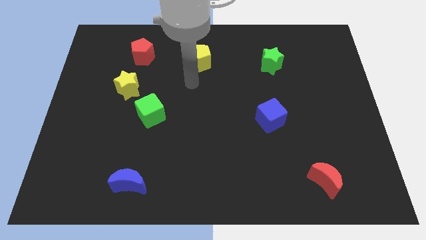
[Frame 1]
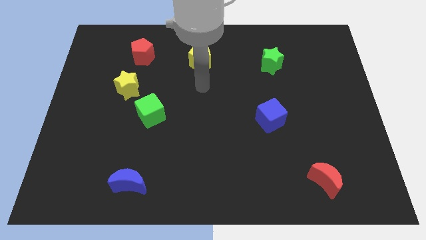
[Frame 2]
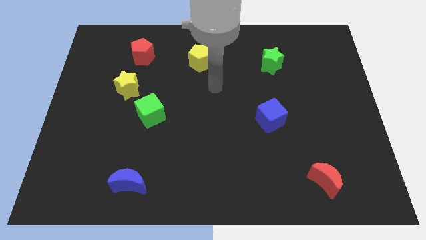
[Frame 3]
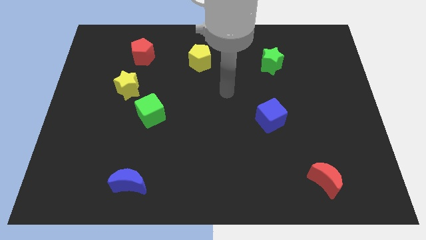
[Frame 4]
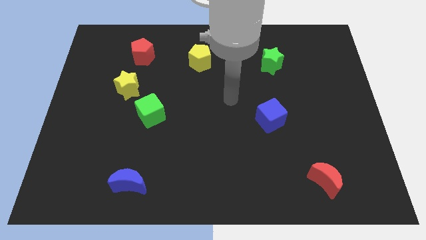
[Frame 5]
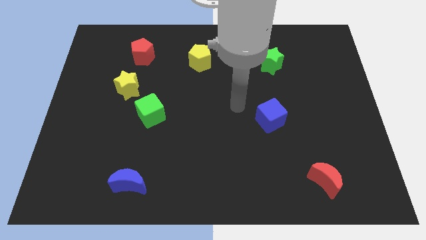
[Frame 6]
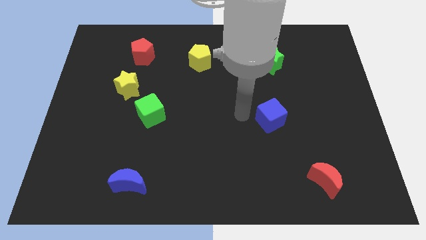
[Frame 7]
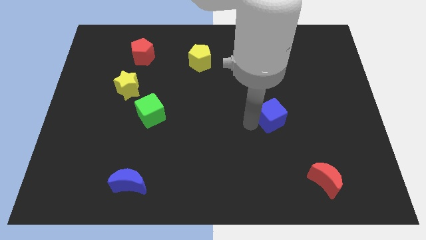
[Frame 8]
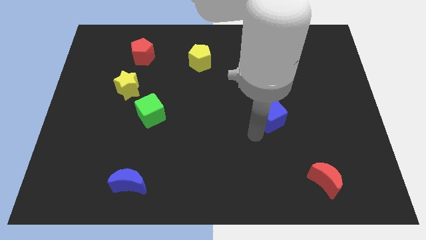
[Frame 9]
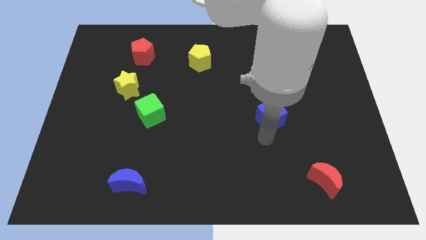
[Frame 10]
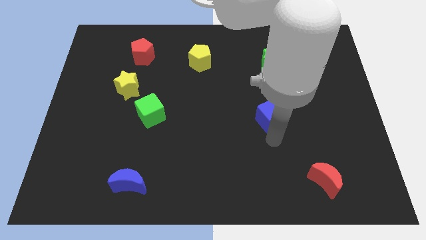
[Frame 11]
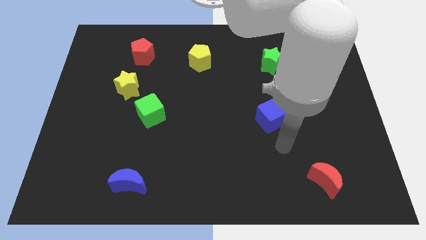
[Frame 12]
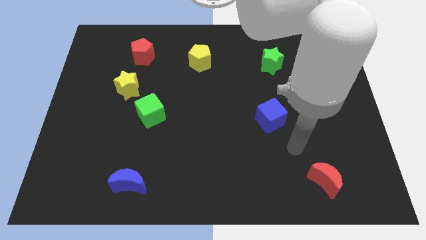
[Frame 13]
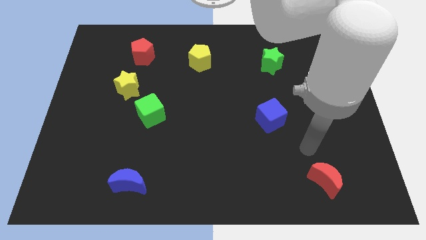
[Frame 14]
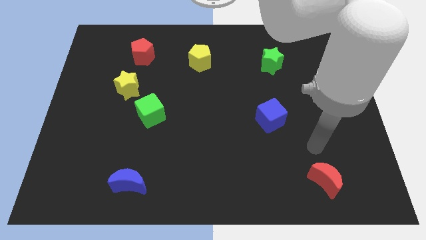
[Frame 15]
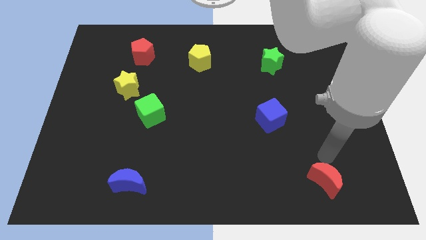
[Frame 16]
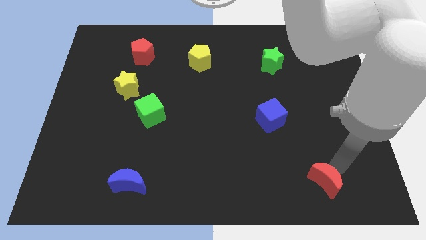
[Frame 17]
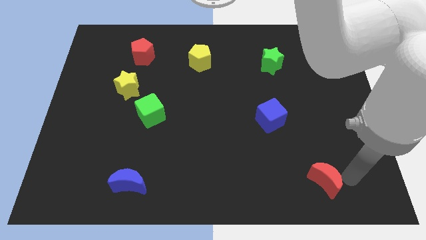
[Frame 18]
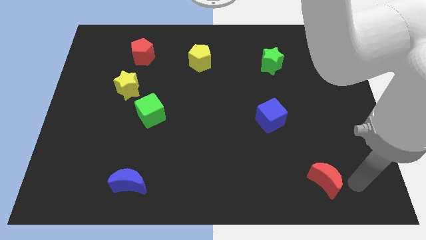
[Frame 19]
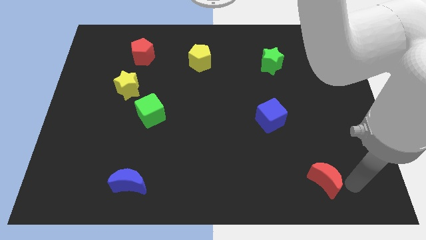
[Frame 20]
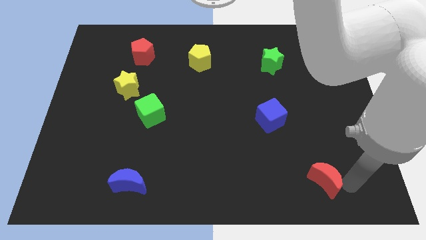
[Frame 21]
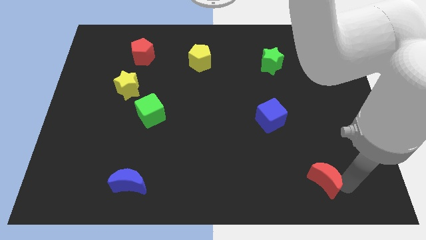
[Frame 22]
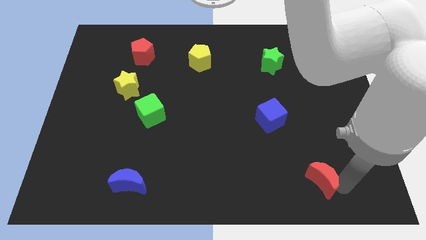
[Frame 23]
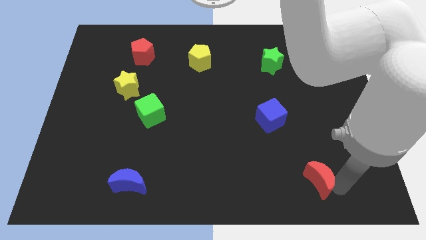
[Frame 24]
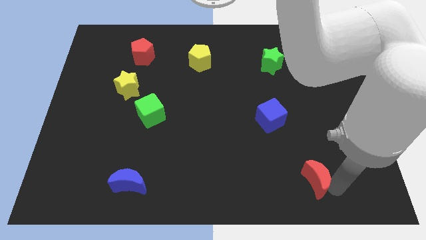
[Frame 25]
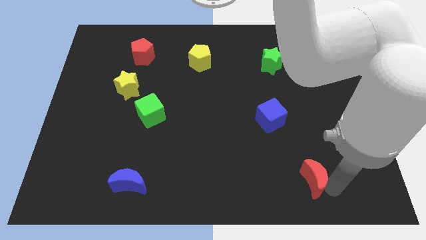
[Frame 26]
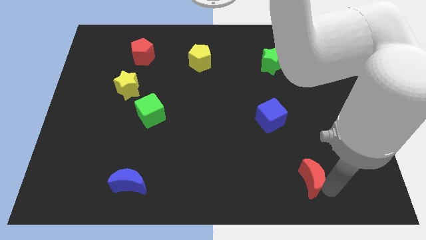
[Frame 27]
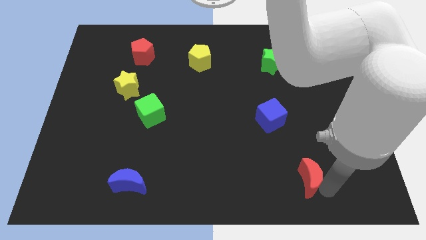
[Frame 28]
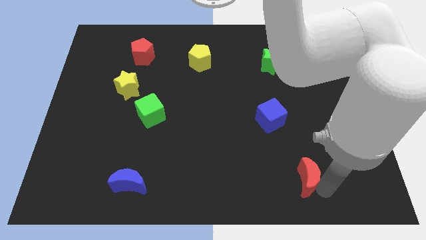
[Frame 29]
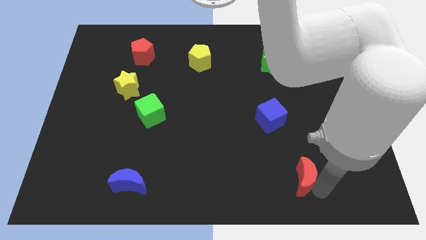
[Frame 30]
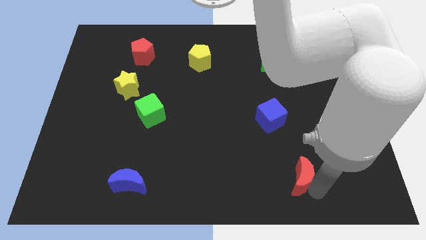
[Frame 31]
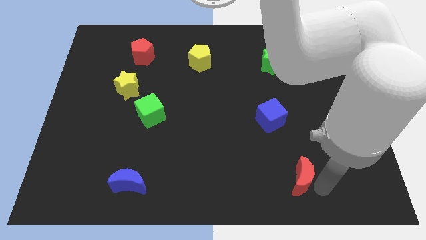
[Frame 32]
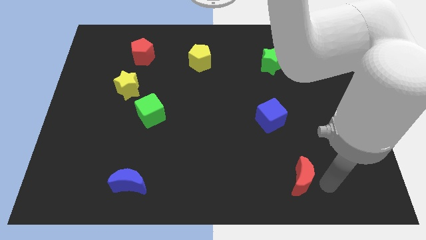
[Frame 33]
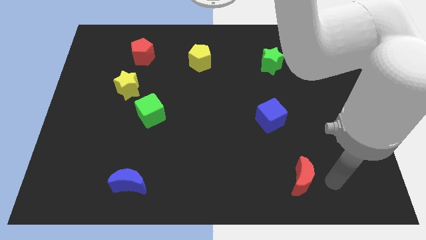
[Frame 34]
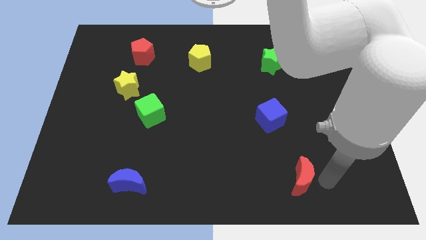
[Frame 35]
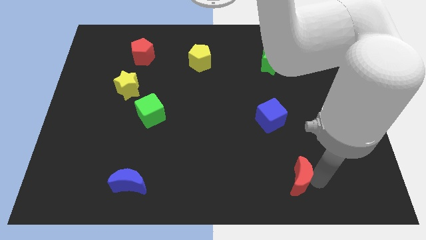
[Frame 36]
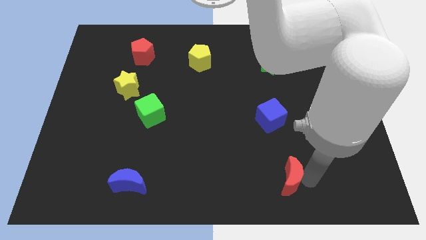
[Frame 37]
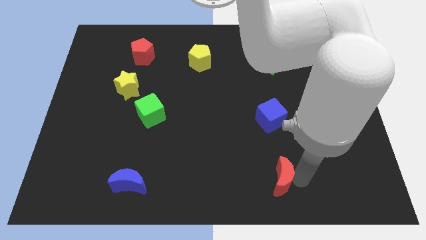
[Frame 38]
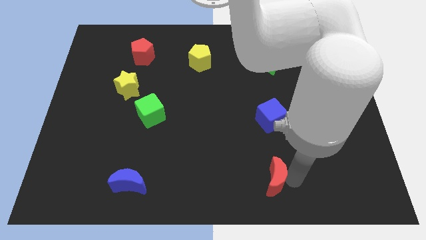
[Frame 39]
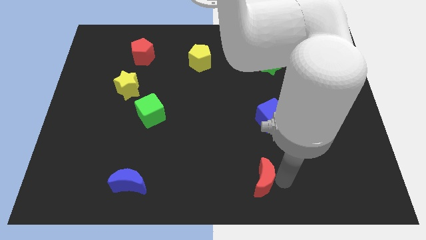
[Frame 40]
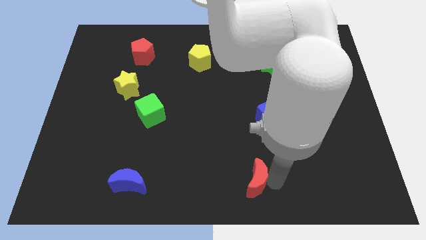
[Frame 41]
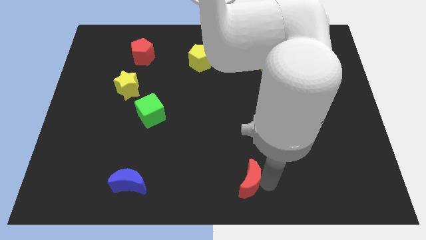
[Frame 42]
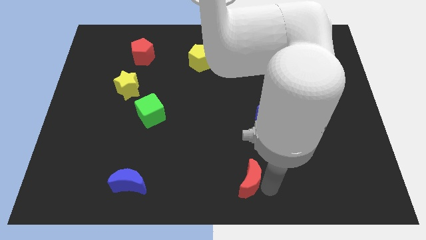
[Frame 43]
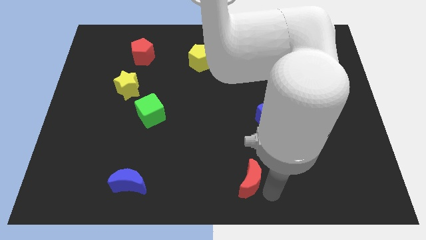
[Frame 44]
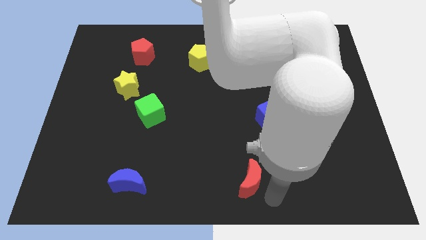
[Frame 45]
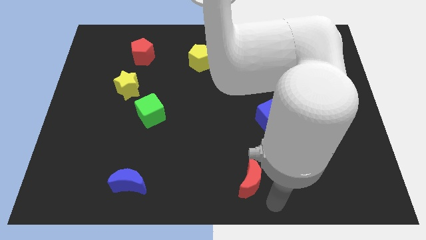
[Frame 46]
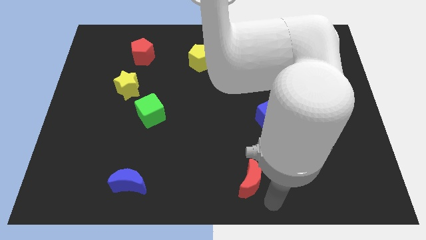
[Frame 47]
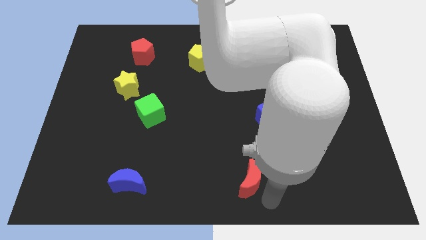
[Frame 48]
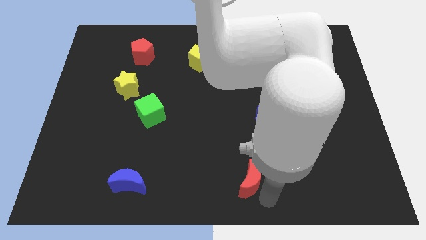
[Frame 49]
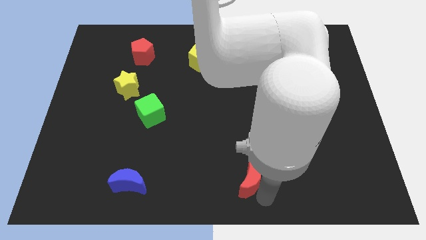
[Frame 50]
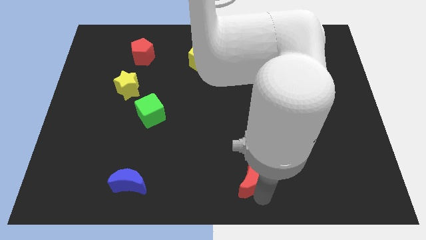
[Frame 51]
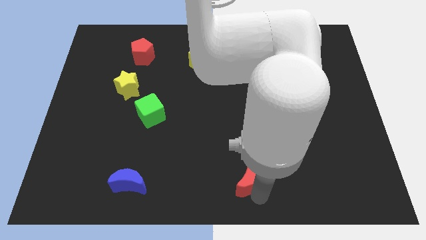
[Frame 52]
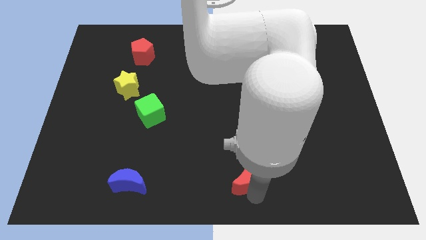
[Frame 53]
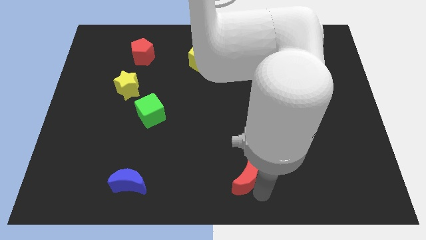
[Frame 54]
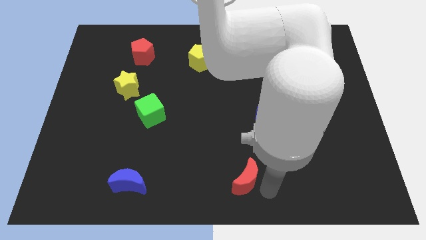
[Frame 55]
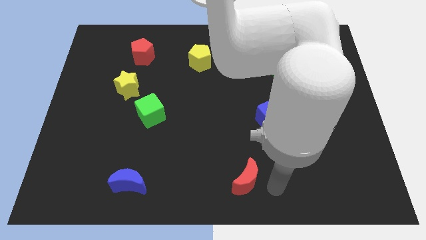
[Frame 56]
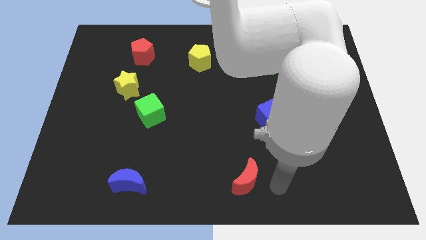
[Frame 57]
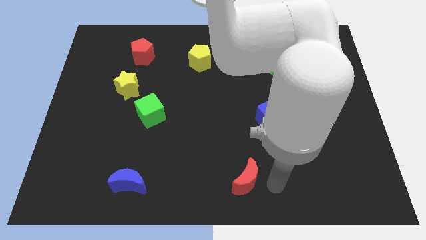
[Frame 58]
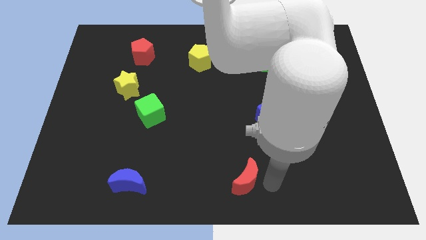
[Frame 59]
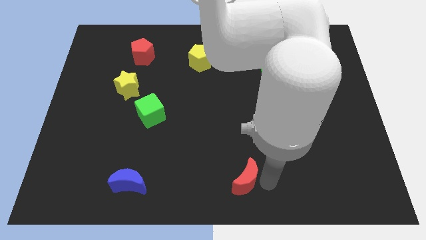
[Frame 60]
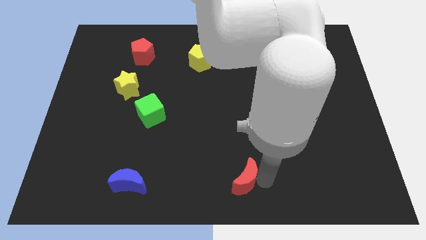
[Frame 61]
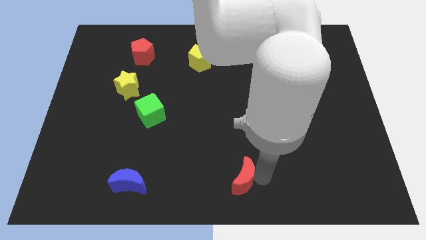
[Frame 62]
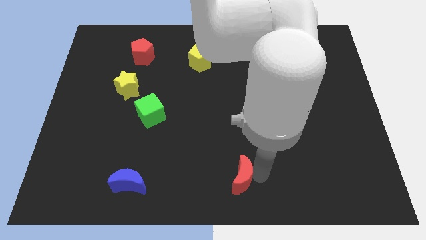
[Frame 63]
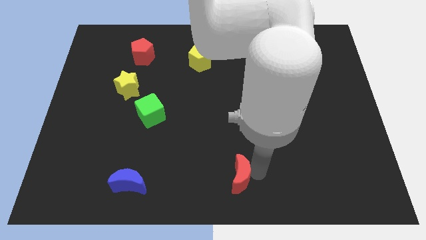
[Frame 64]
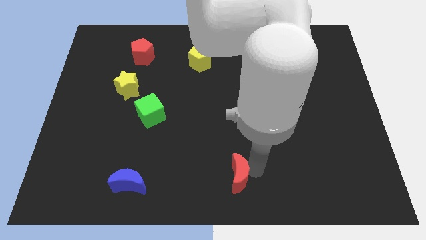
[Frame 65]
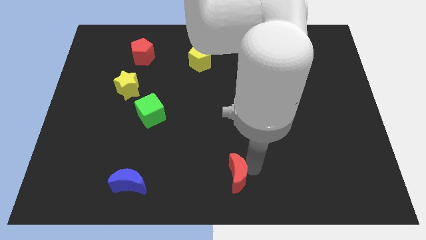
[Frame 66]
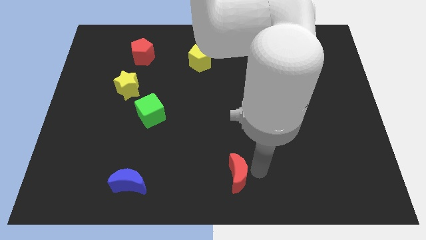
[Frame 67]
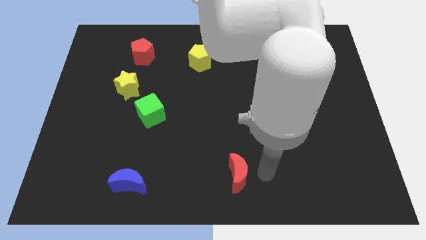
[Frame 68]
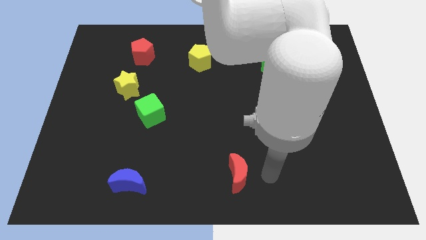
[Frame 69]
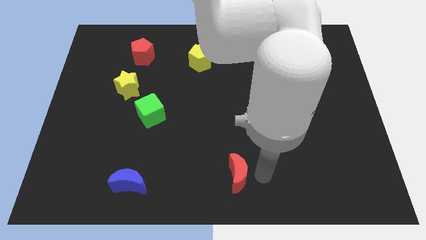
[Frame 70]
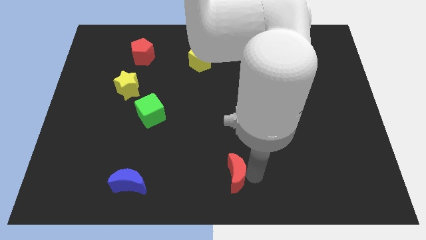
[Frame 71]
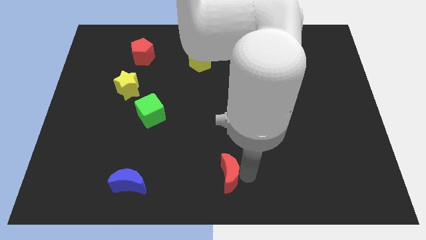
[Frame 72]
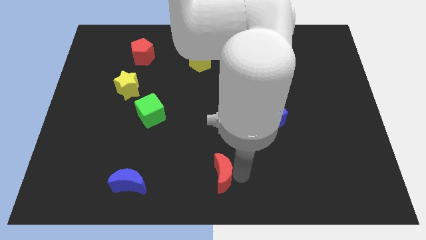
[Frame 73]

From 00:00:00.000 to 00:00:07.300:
push the red moon to the left

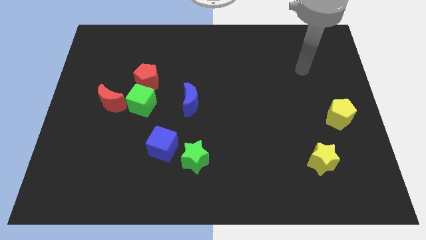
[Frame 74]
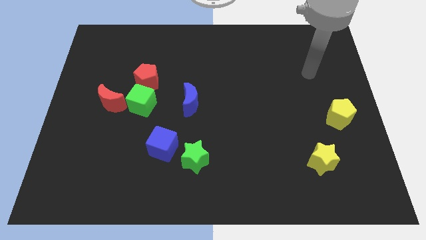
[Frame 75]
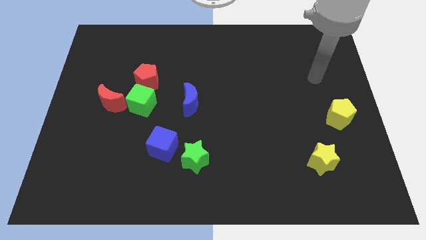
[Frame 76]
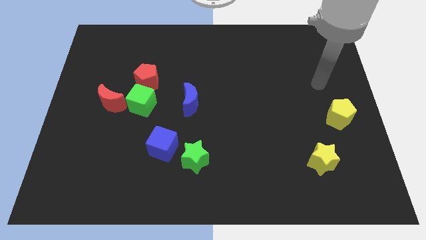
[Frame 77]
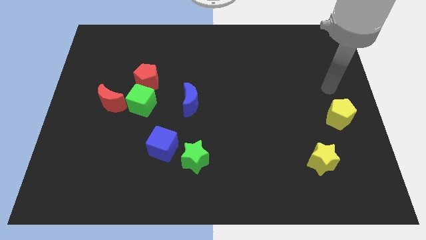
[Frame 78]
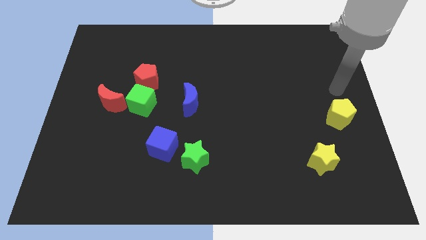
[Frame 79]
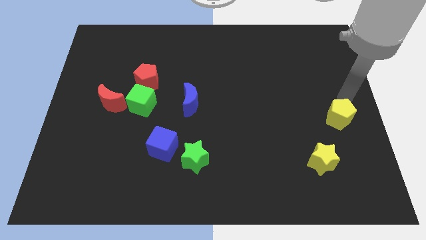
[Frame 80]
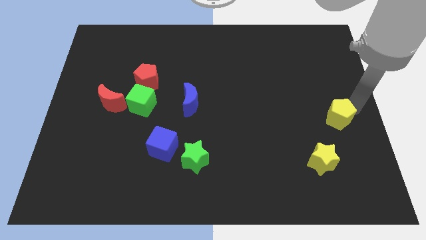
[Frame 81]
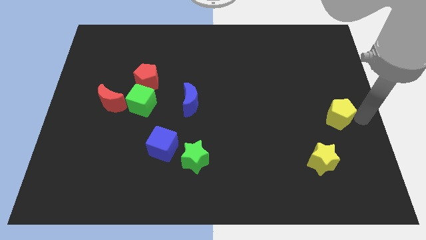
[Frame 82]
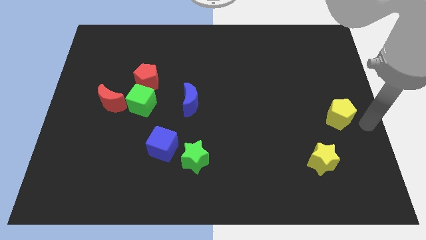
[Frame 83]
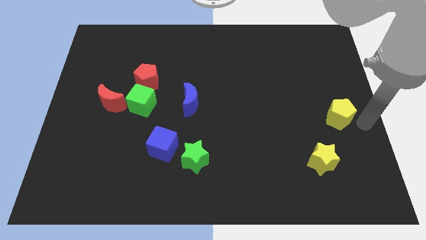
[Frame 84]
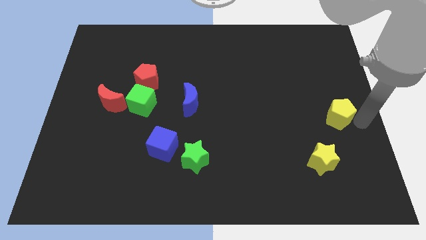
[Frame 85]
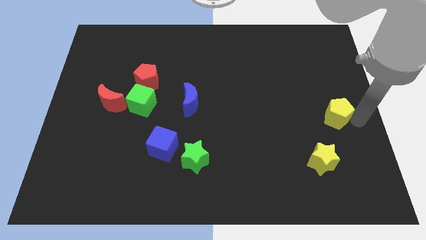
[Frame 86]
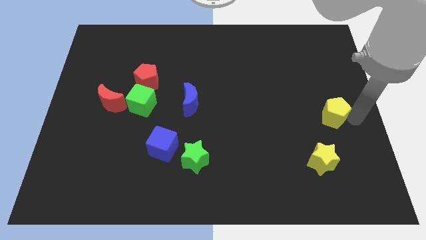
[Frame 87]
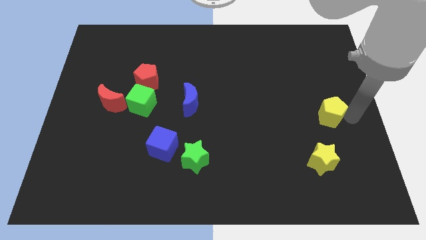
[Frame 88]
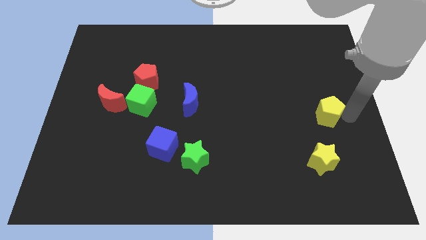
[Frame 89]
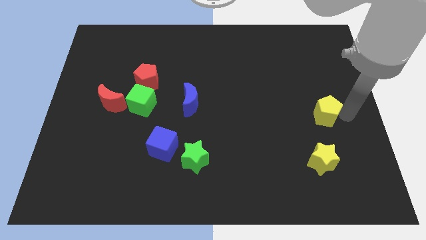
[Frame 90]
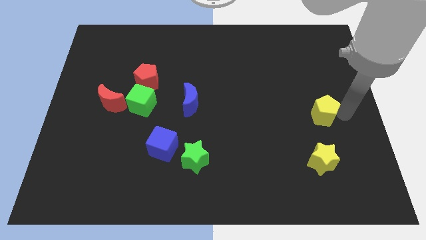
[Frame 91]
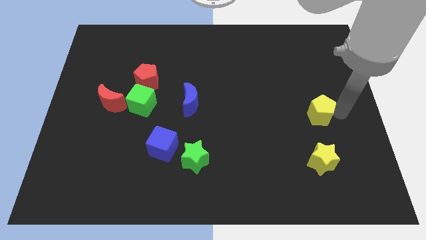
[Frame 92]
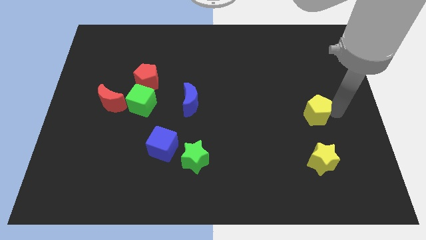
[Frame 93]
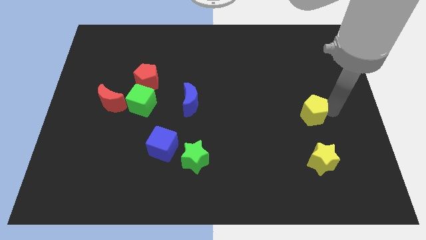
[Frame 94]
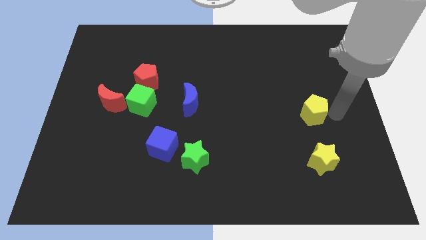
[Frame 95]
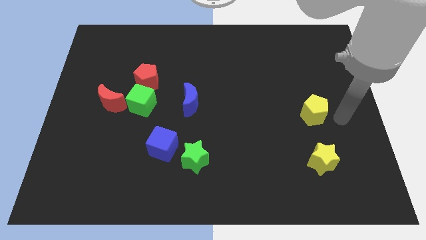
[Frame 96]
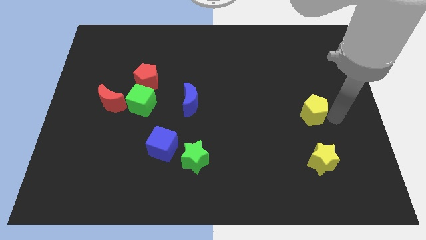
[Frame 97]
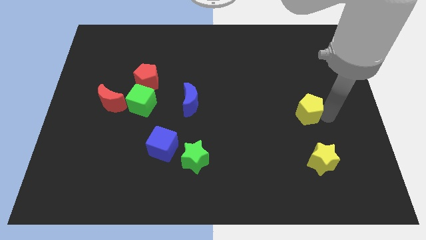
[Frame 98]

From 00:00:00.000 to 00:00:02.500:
slightly slide the yellow pentagon left
